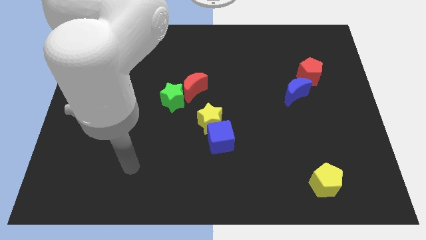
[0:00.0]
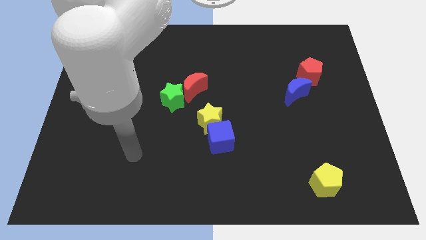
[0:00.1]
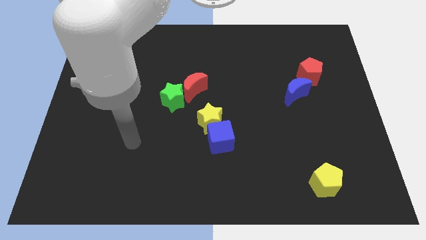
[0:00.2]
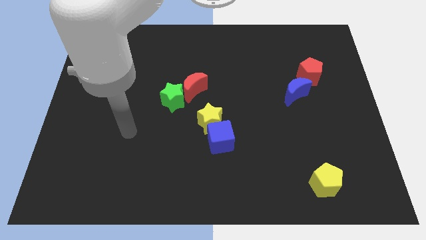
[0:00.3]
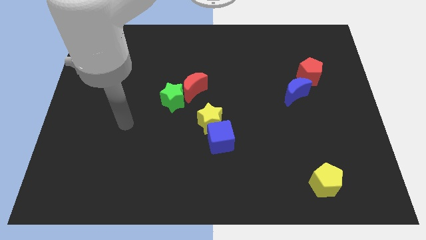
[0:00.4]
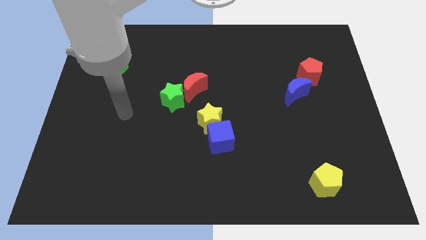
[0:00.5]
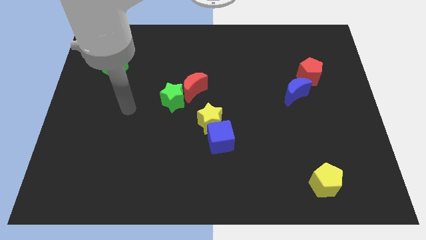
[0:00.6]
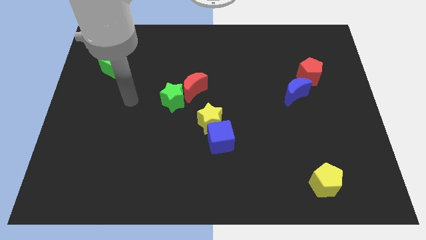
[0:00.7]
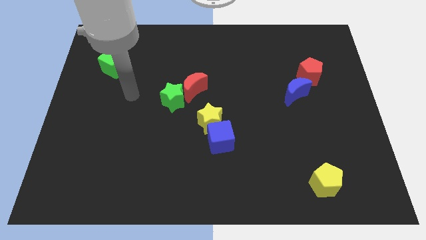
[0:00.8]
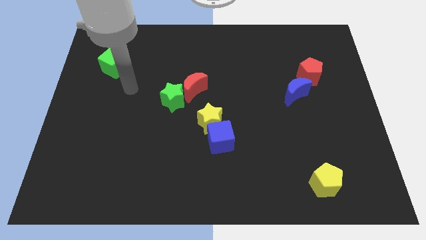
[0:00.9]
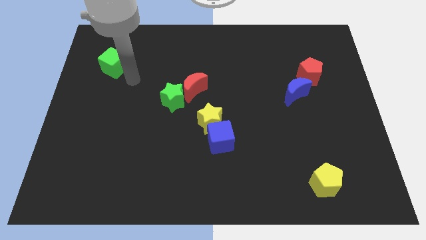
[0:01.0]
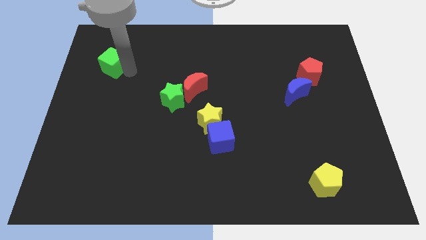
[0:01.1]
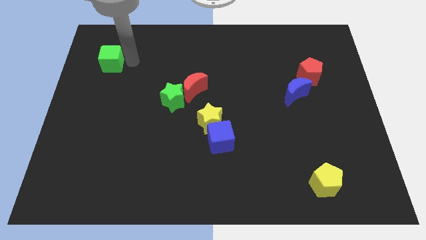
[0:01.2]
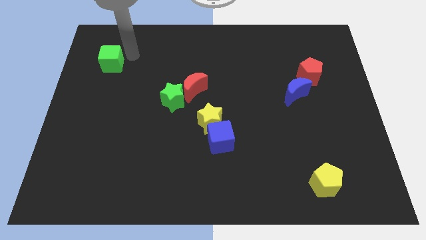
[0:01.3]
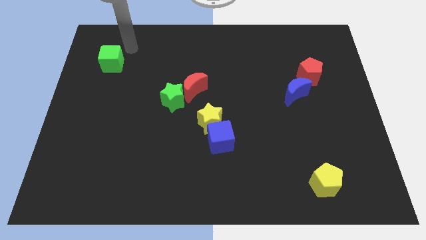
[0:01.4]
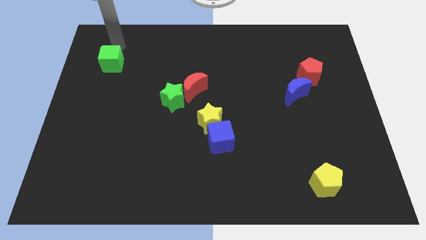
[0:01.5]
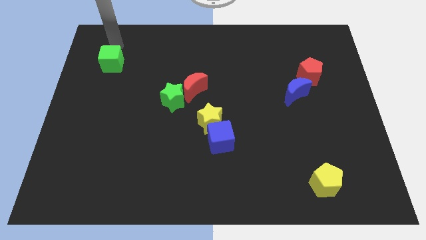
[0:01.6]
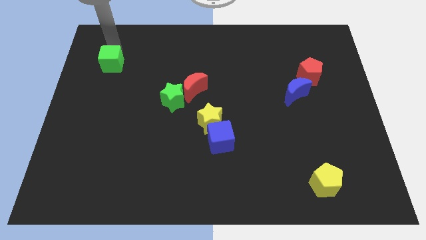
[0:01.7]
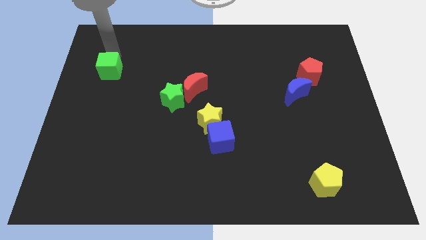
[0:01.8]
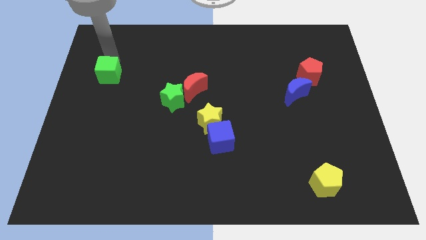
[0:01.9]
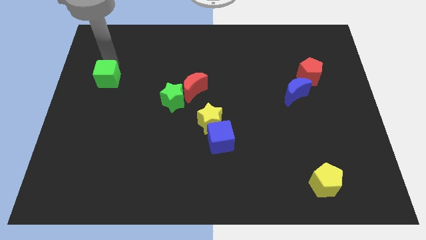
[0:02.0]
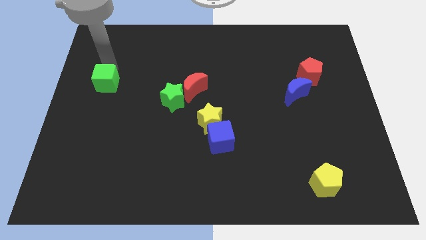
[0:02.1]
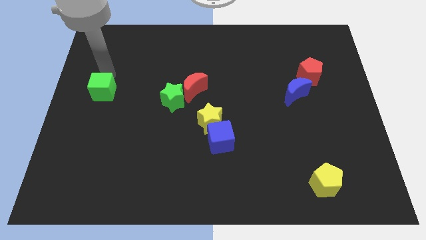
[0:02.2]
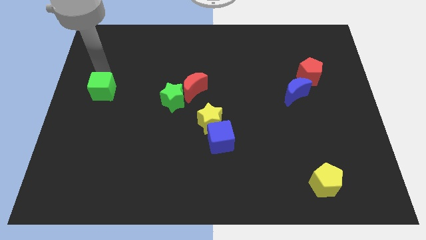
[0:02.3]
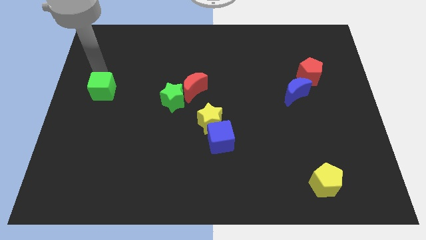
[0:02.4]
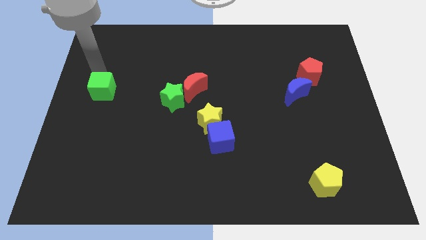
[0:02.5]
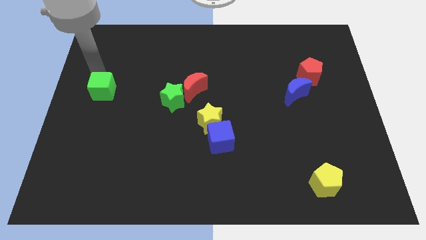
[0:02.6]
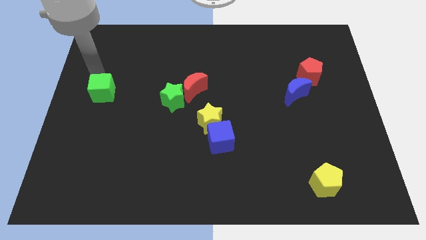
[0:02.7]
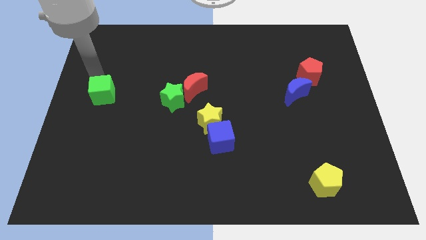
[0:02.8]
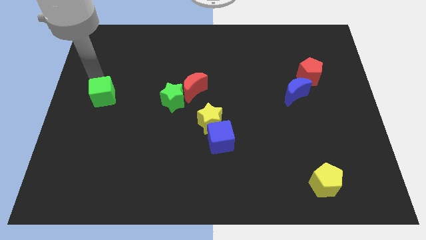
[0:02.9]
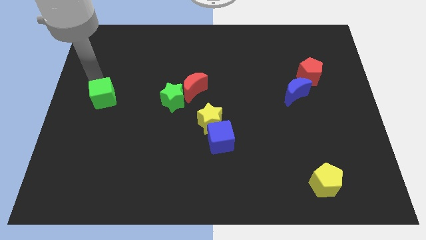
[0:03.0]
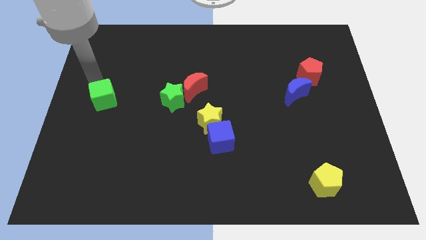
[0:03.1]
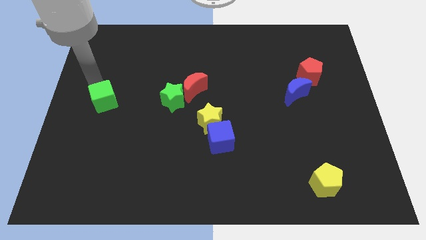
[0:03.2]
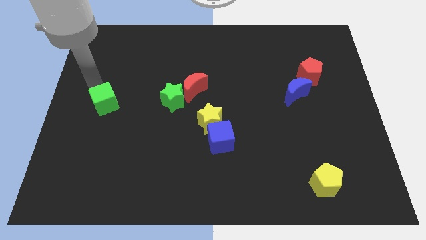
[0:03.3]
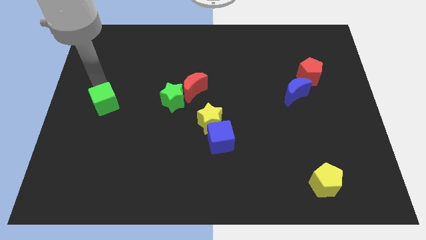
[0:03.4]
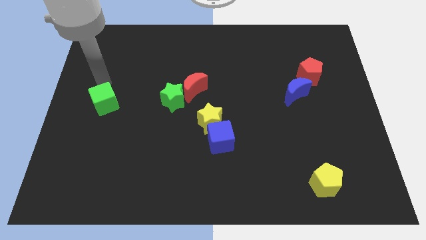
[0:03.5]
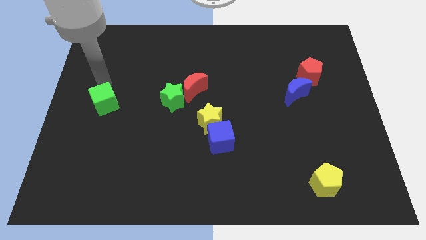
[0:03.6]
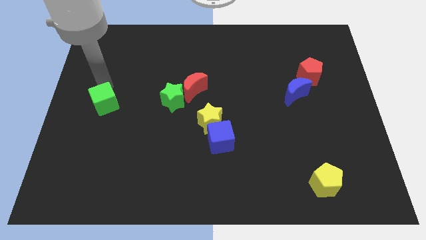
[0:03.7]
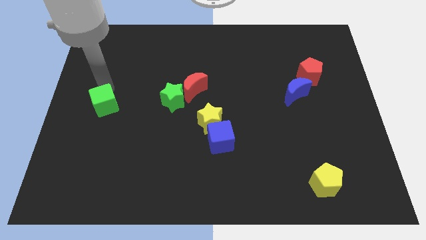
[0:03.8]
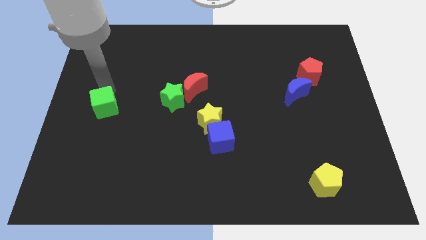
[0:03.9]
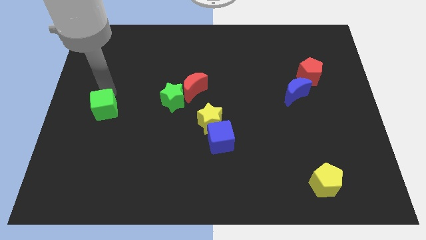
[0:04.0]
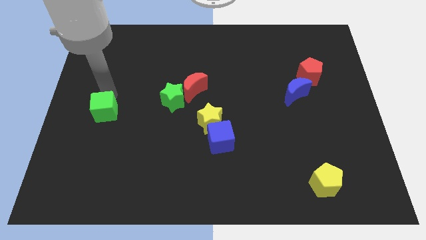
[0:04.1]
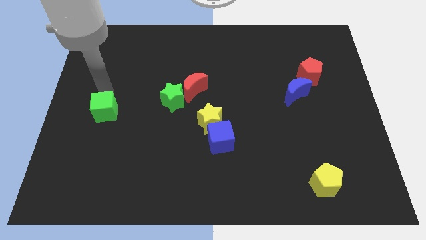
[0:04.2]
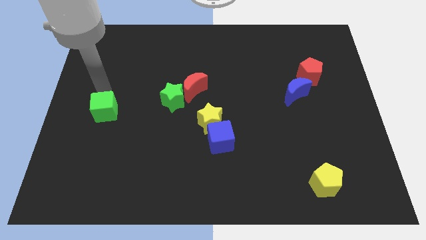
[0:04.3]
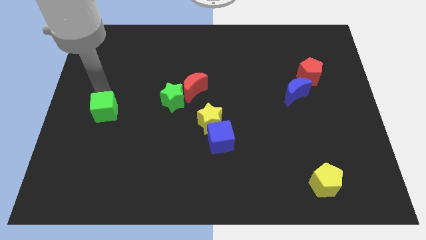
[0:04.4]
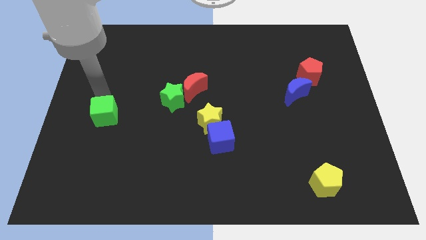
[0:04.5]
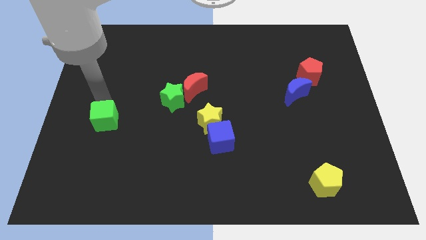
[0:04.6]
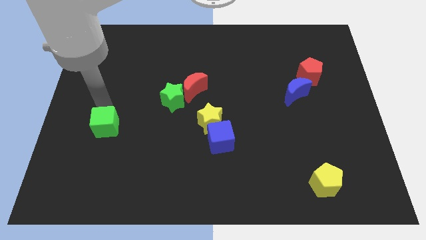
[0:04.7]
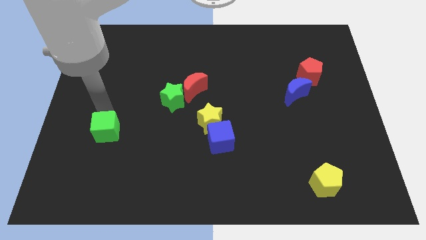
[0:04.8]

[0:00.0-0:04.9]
push the green cube down

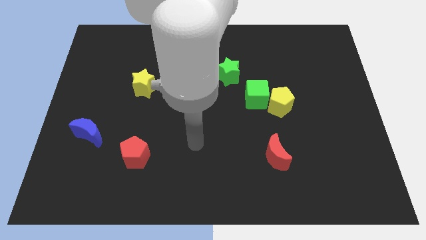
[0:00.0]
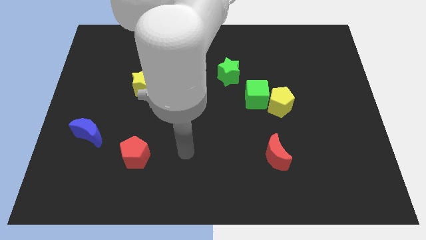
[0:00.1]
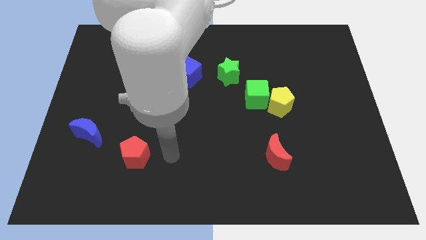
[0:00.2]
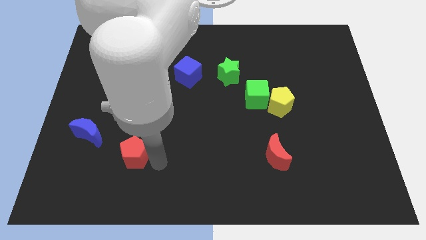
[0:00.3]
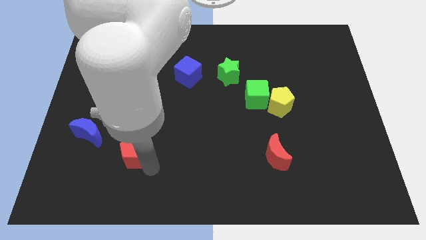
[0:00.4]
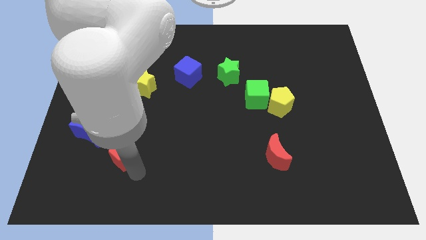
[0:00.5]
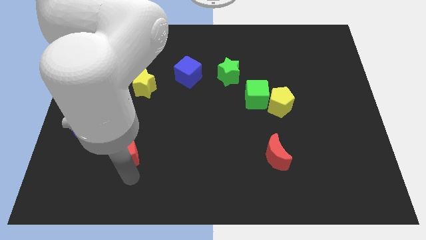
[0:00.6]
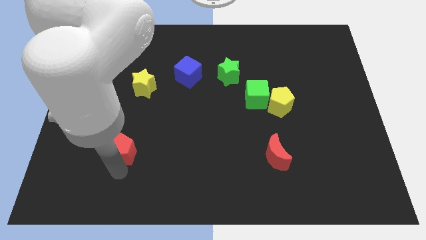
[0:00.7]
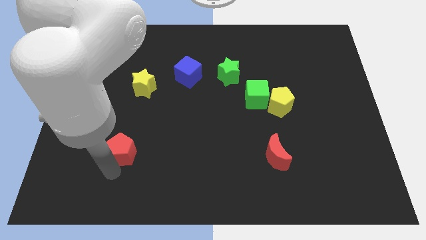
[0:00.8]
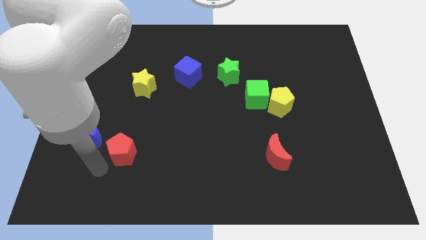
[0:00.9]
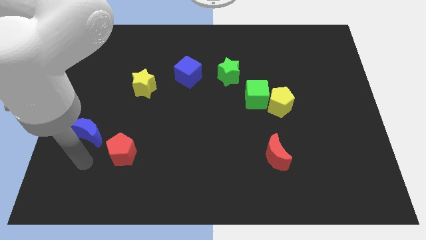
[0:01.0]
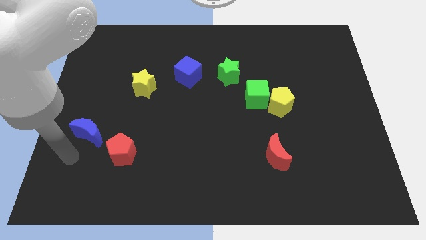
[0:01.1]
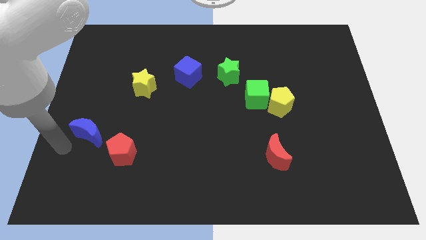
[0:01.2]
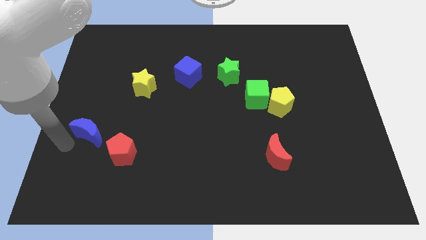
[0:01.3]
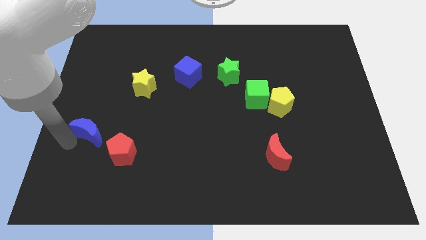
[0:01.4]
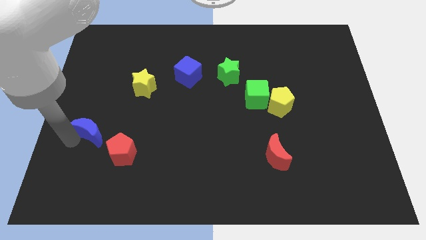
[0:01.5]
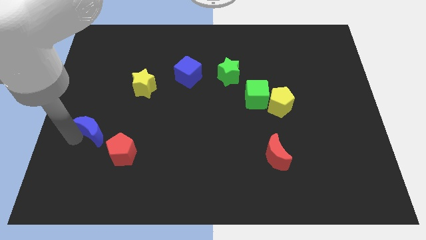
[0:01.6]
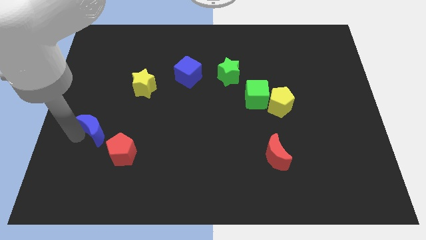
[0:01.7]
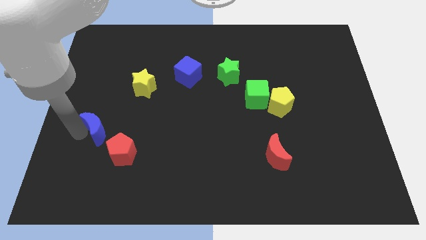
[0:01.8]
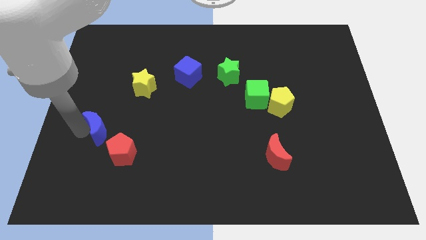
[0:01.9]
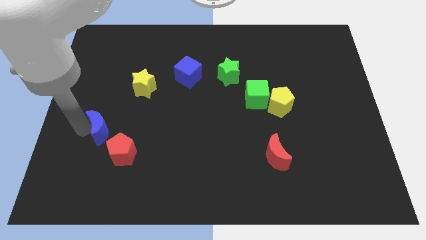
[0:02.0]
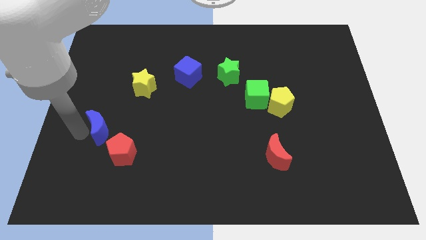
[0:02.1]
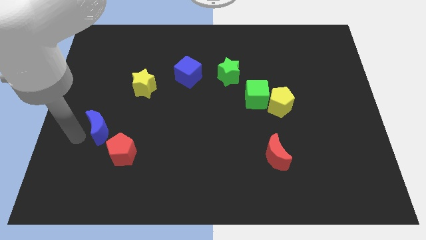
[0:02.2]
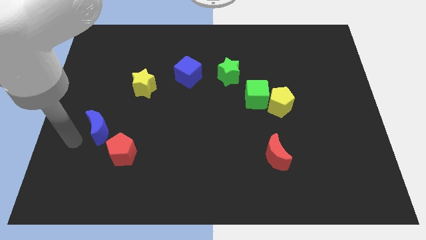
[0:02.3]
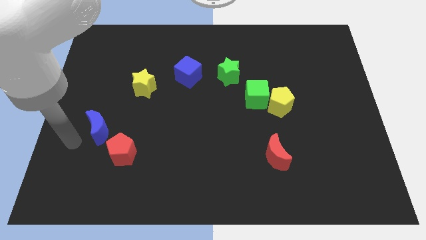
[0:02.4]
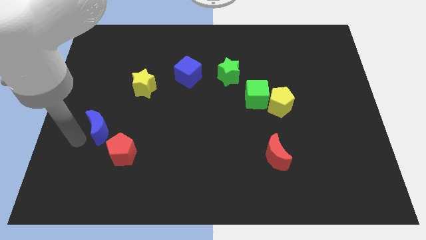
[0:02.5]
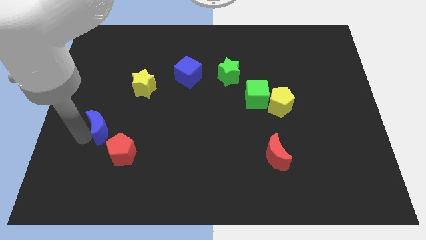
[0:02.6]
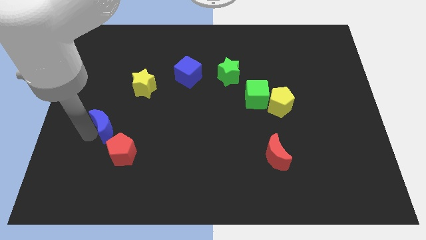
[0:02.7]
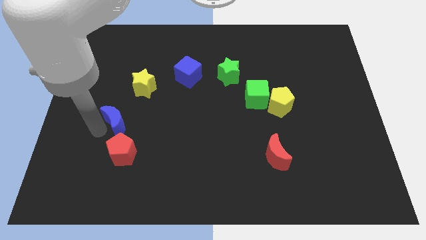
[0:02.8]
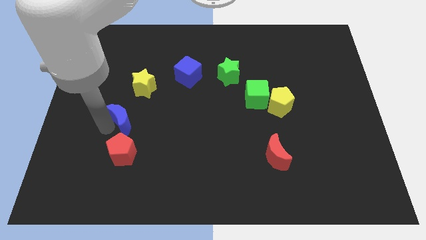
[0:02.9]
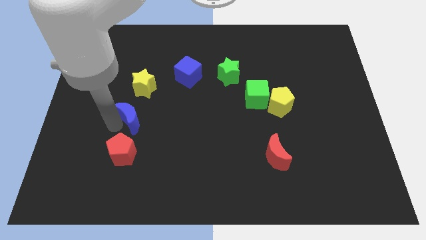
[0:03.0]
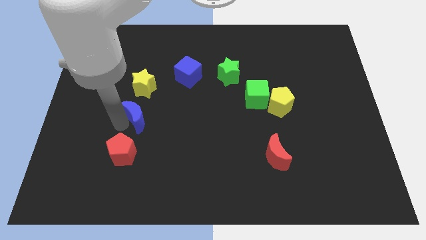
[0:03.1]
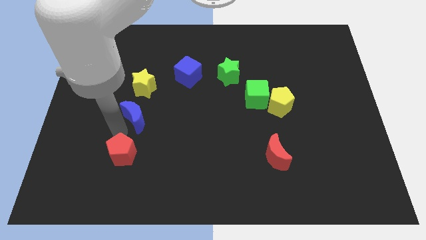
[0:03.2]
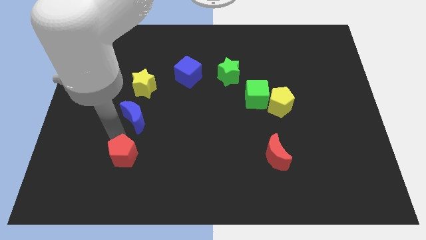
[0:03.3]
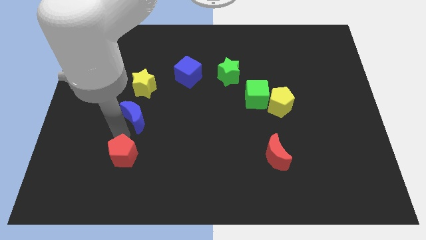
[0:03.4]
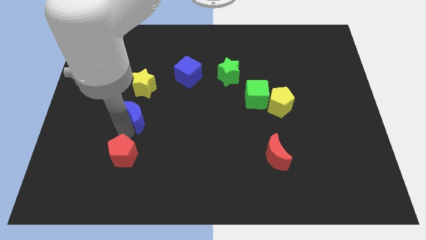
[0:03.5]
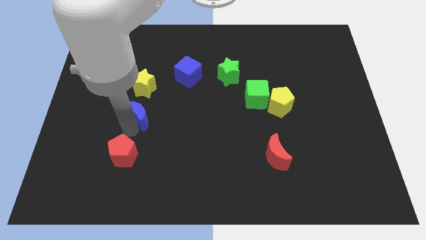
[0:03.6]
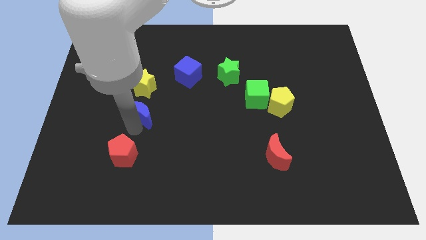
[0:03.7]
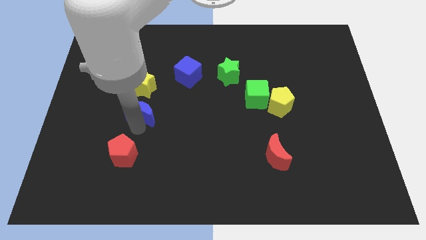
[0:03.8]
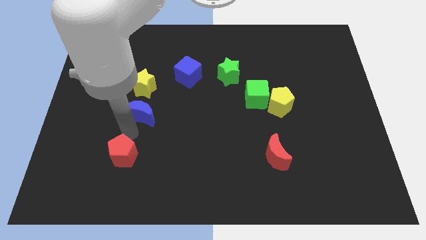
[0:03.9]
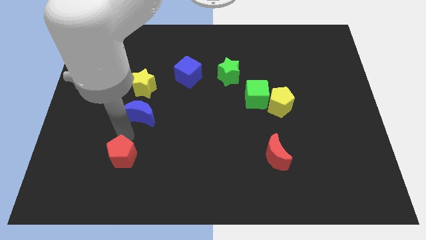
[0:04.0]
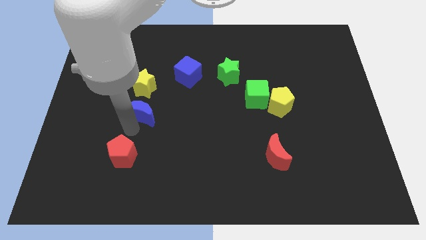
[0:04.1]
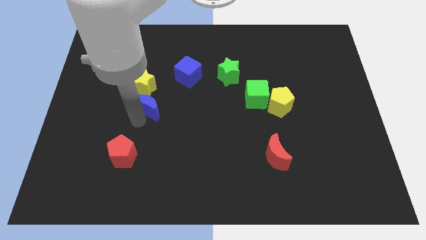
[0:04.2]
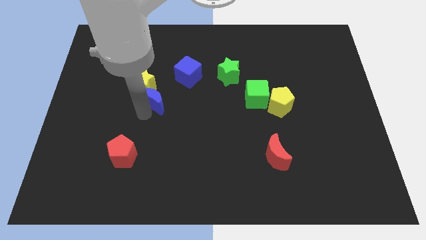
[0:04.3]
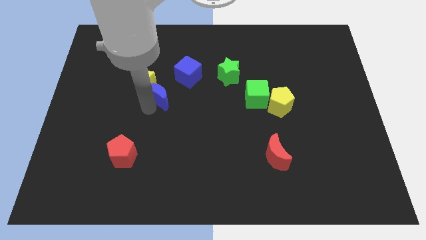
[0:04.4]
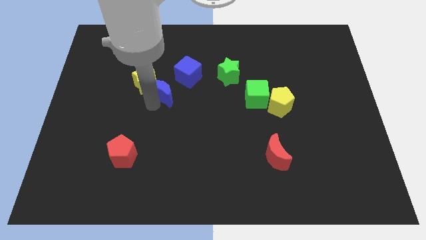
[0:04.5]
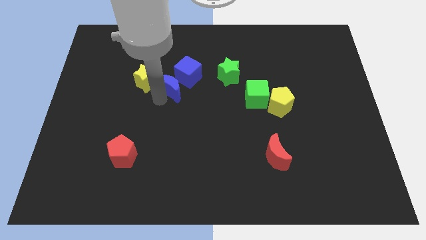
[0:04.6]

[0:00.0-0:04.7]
slide the blue moon diagonally upwards and right
